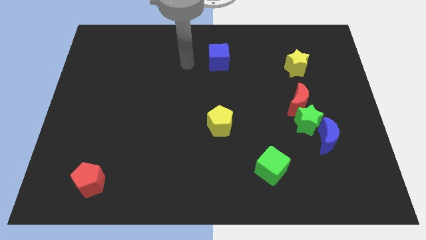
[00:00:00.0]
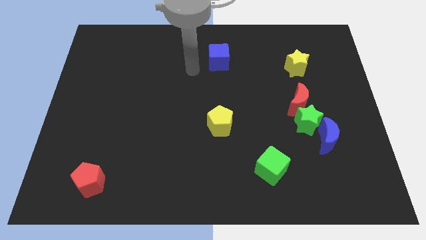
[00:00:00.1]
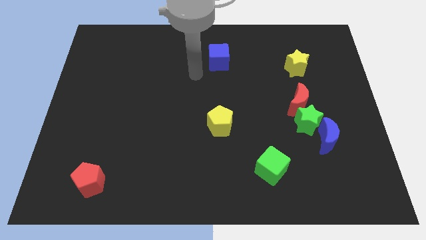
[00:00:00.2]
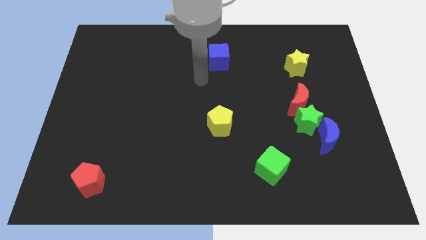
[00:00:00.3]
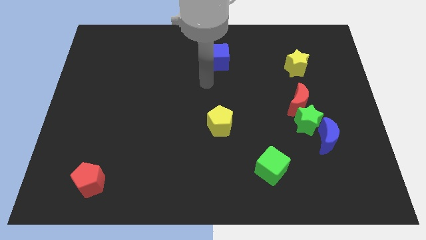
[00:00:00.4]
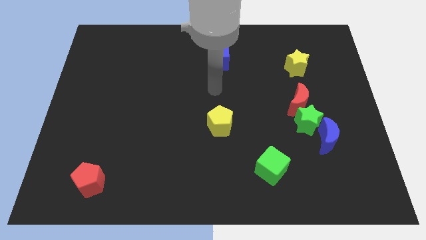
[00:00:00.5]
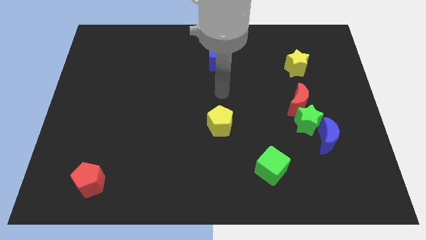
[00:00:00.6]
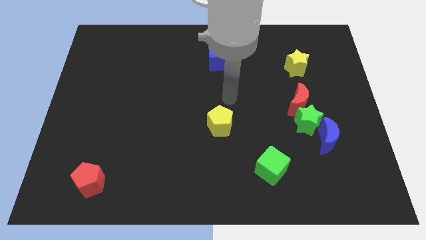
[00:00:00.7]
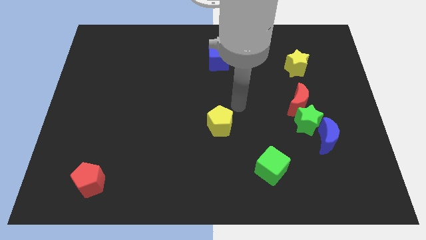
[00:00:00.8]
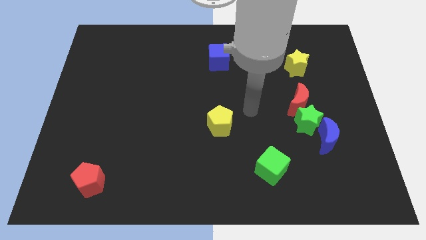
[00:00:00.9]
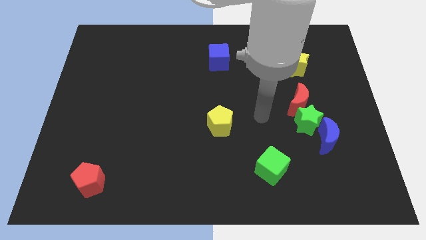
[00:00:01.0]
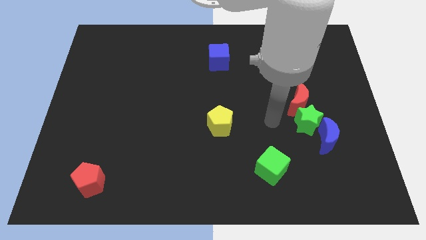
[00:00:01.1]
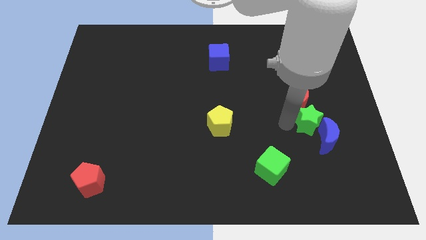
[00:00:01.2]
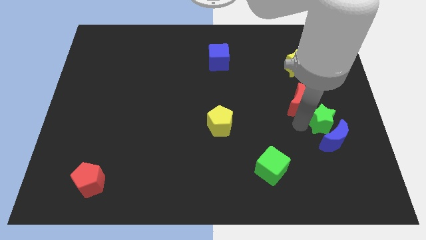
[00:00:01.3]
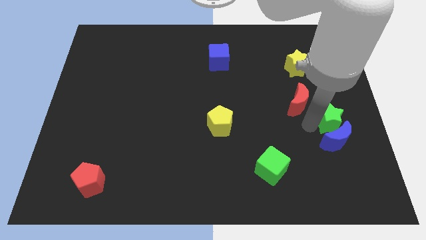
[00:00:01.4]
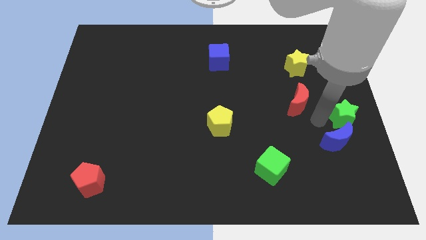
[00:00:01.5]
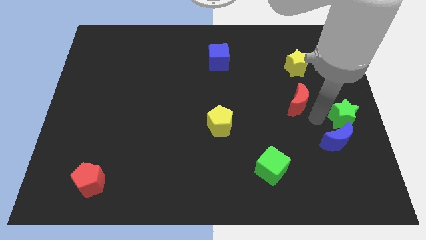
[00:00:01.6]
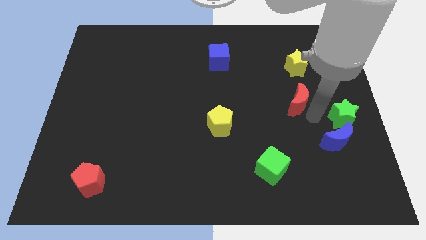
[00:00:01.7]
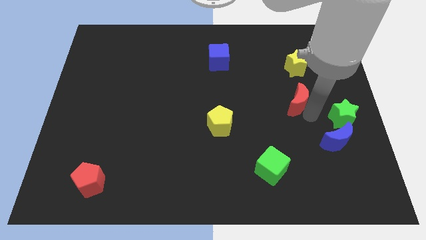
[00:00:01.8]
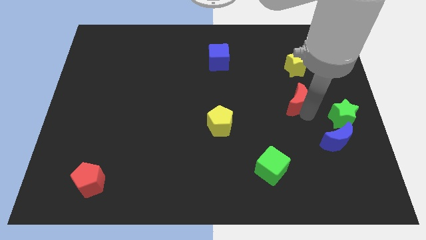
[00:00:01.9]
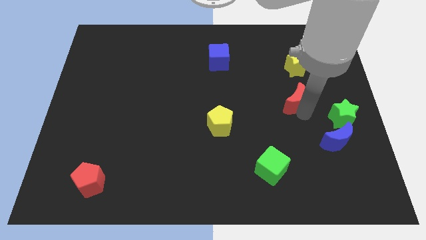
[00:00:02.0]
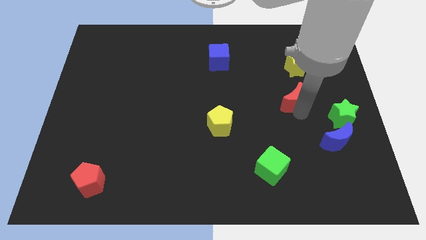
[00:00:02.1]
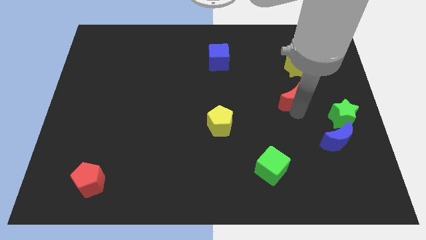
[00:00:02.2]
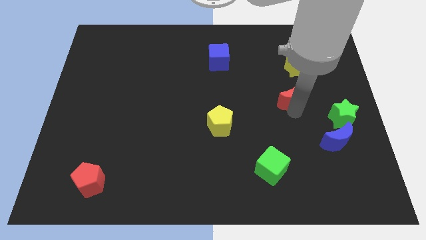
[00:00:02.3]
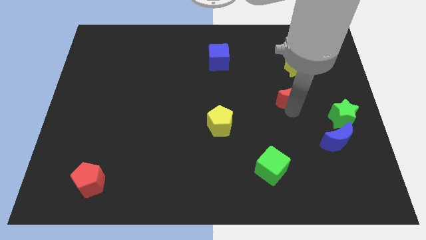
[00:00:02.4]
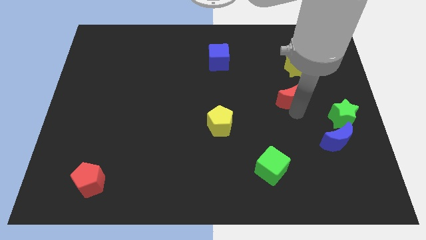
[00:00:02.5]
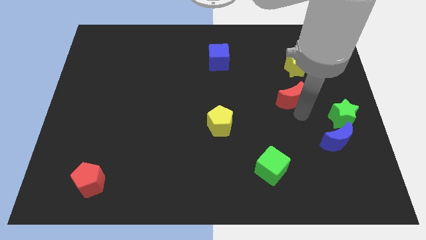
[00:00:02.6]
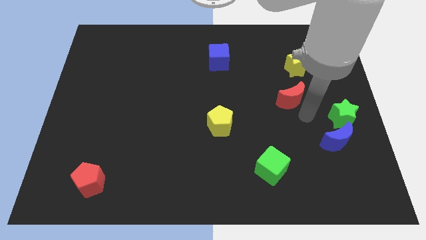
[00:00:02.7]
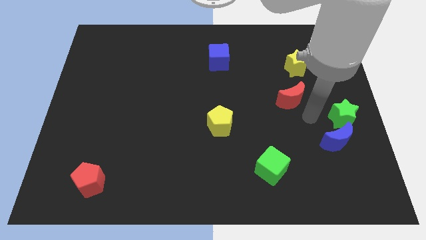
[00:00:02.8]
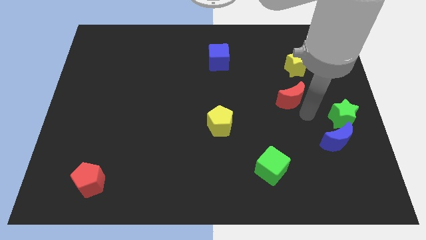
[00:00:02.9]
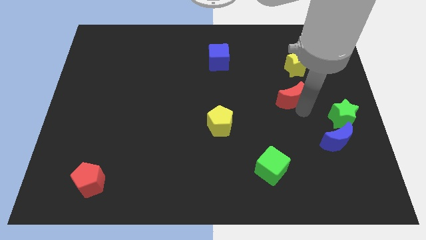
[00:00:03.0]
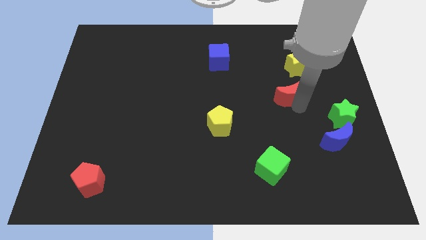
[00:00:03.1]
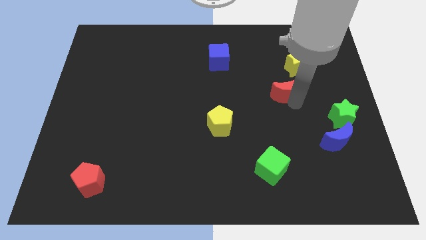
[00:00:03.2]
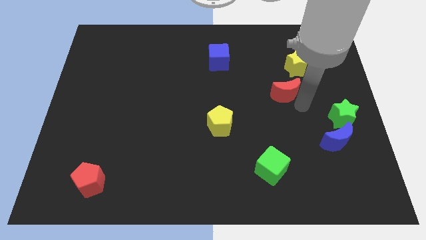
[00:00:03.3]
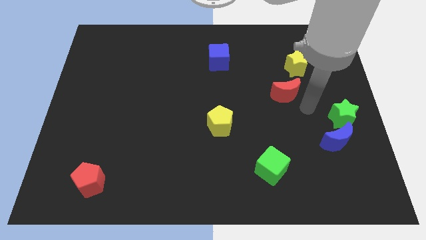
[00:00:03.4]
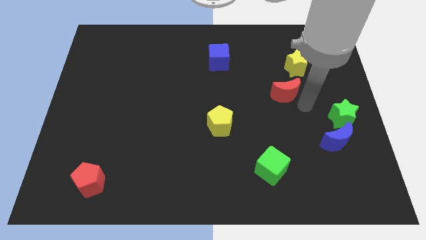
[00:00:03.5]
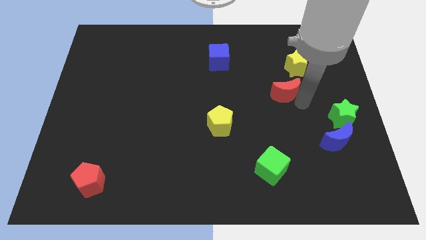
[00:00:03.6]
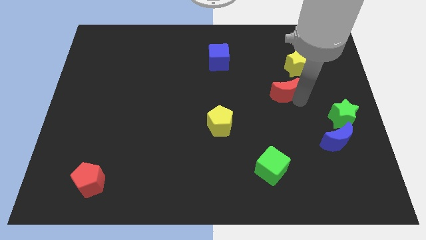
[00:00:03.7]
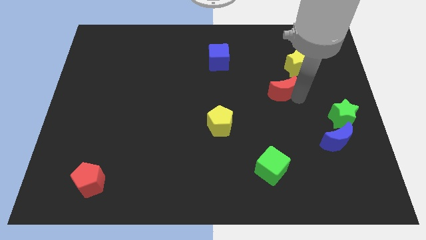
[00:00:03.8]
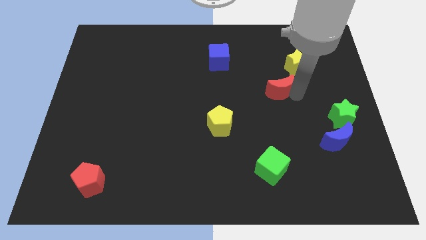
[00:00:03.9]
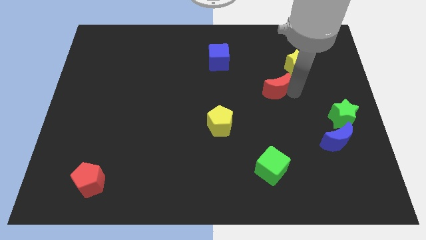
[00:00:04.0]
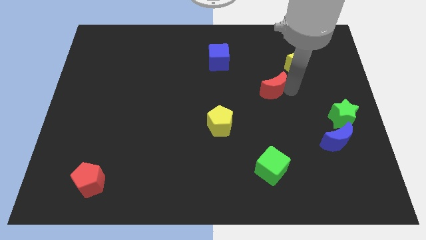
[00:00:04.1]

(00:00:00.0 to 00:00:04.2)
slightly slide the red moon diagonally up and left

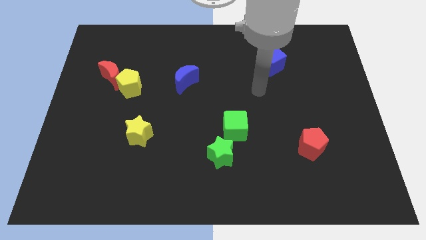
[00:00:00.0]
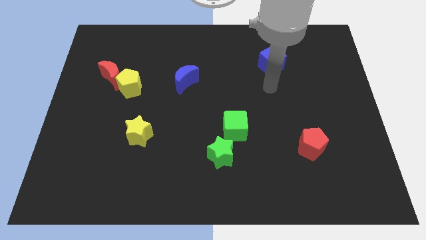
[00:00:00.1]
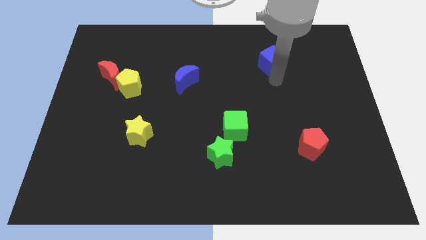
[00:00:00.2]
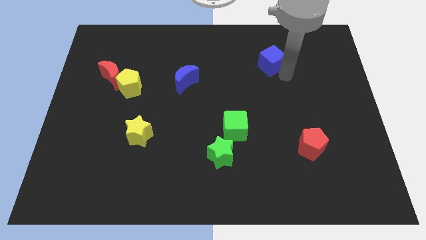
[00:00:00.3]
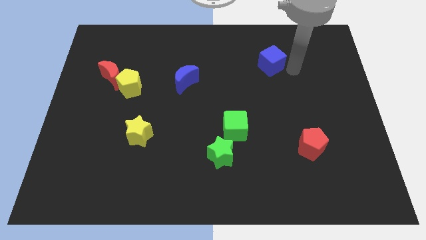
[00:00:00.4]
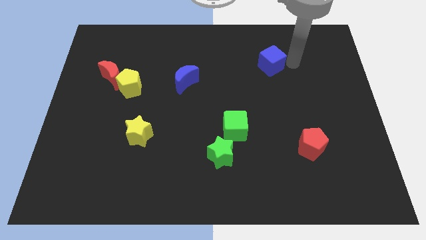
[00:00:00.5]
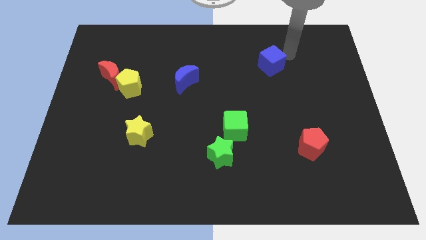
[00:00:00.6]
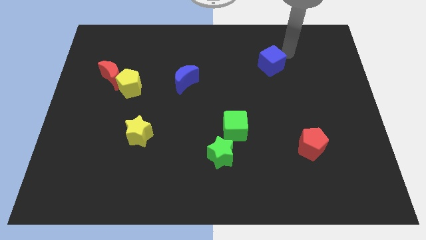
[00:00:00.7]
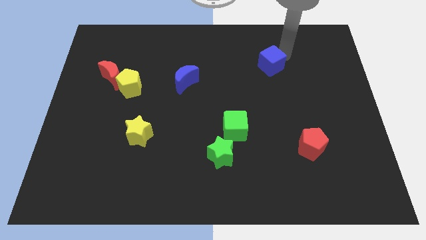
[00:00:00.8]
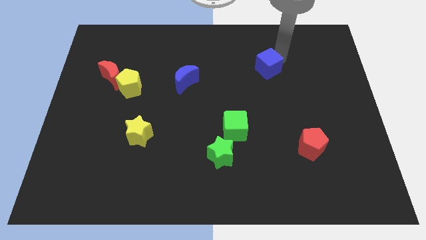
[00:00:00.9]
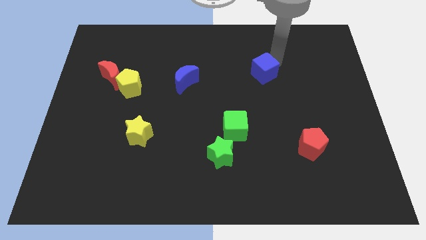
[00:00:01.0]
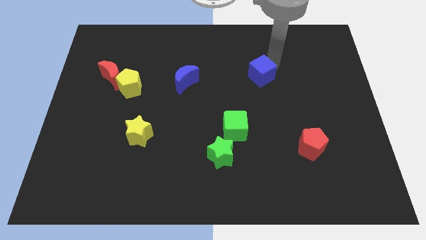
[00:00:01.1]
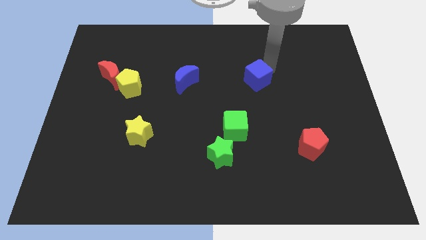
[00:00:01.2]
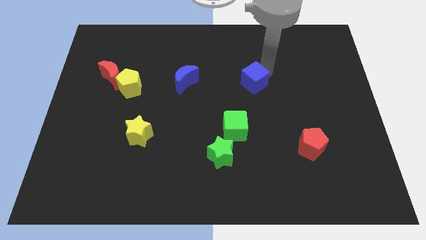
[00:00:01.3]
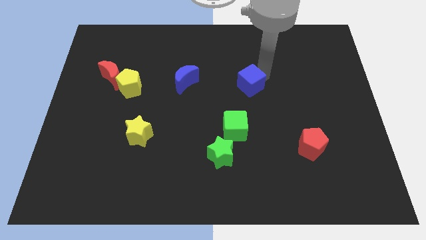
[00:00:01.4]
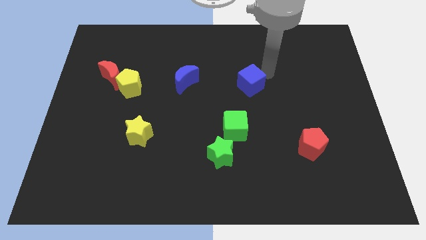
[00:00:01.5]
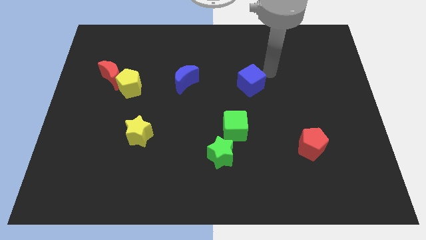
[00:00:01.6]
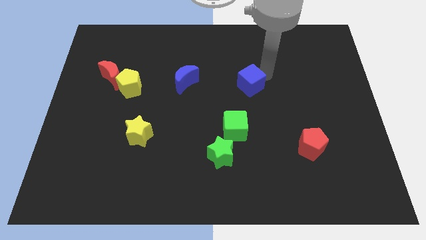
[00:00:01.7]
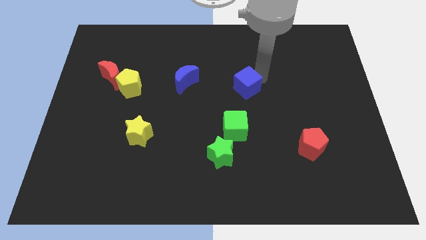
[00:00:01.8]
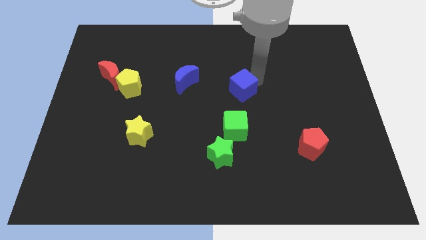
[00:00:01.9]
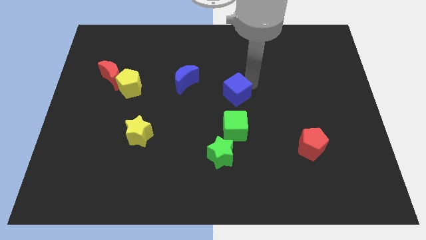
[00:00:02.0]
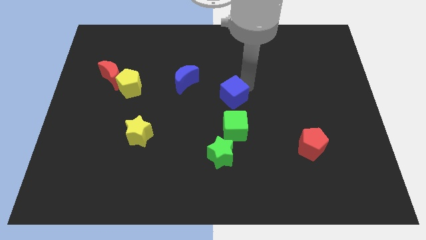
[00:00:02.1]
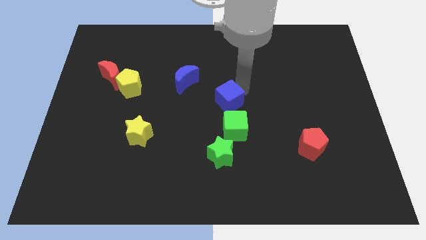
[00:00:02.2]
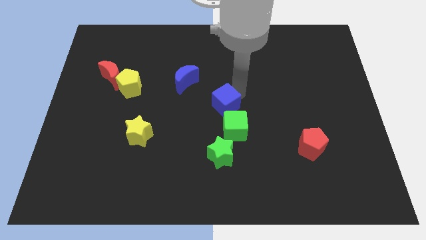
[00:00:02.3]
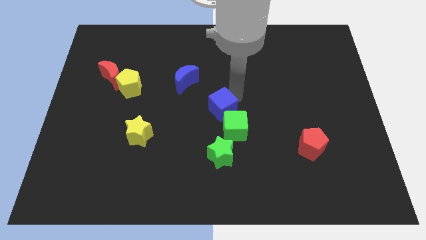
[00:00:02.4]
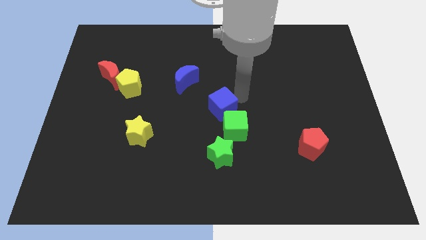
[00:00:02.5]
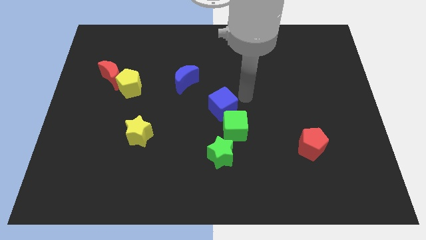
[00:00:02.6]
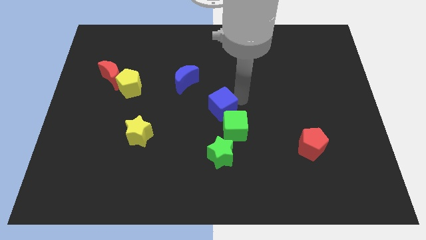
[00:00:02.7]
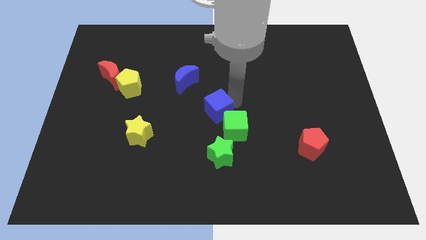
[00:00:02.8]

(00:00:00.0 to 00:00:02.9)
slide the blue cube down and to the left

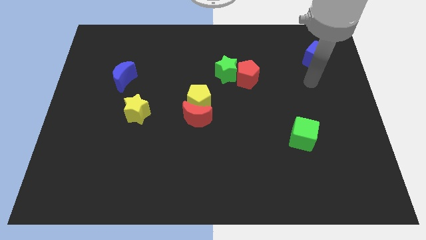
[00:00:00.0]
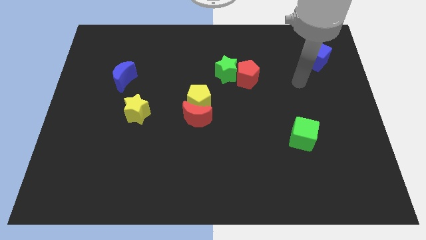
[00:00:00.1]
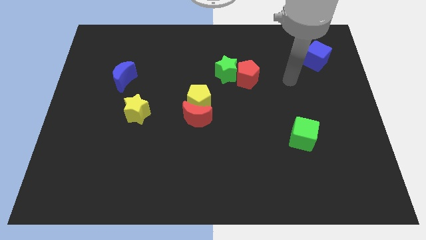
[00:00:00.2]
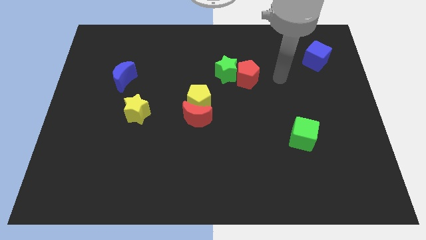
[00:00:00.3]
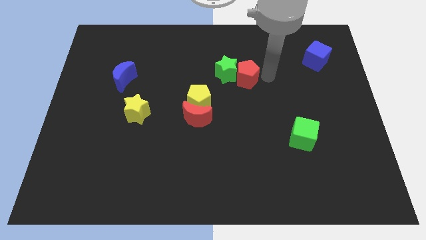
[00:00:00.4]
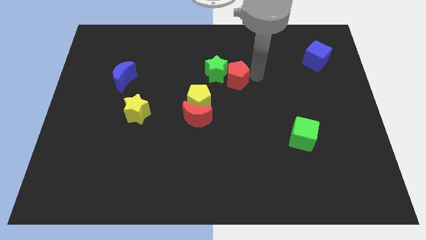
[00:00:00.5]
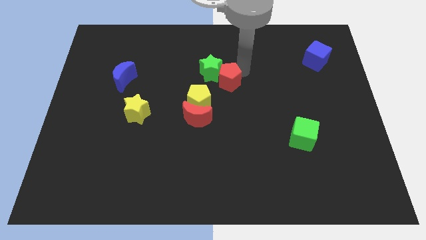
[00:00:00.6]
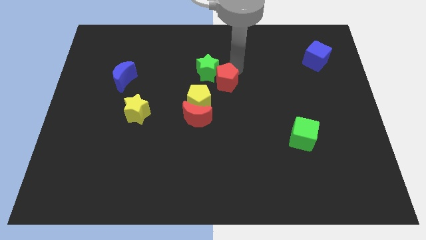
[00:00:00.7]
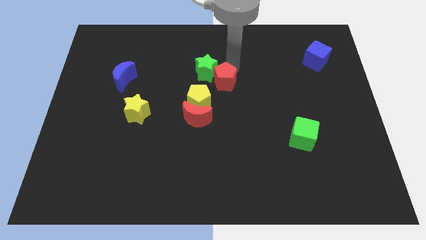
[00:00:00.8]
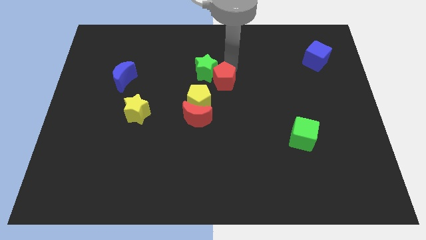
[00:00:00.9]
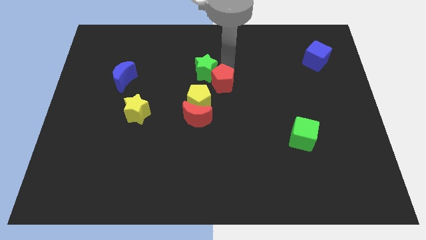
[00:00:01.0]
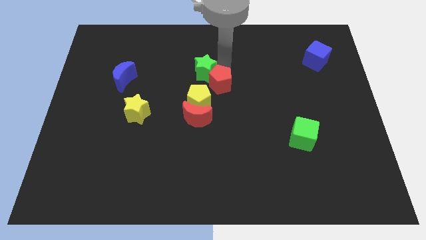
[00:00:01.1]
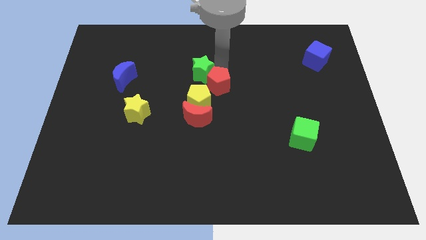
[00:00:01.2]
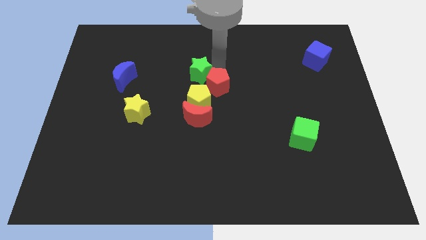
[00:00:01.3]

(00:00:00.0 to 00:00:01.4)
move the green star left a little
